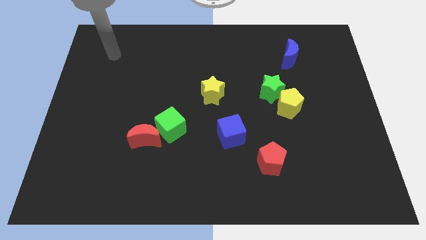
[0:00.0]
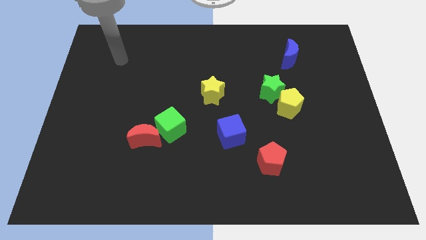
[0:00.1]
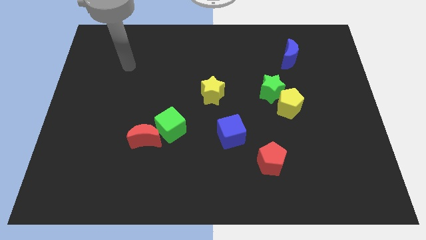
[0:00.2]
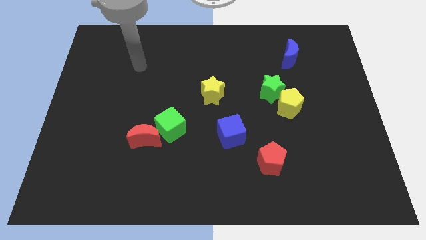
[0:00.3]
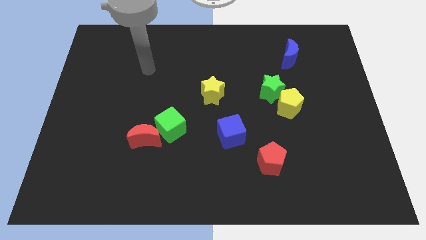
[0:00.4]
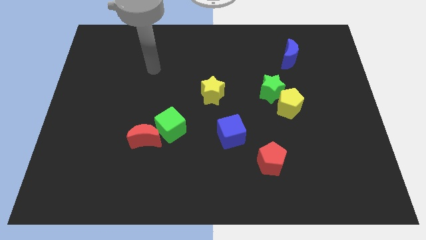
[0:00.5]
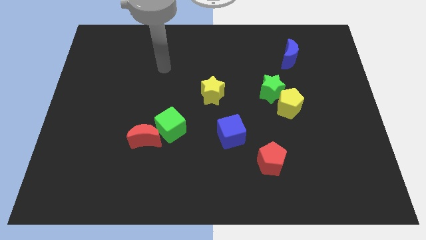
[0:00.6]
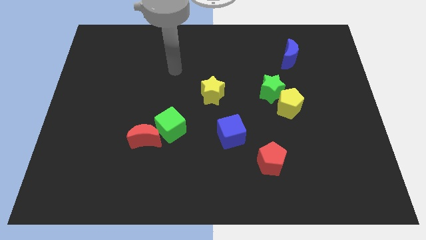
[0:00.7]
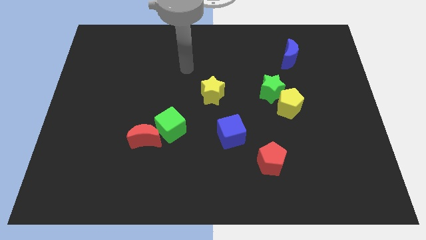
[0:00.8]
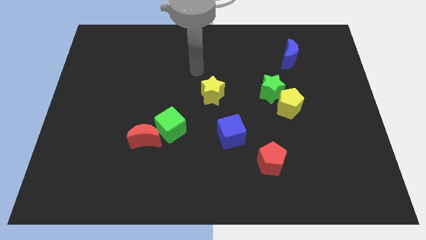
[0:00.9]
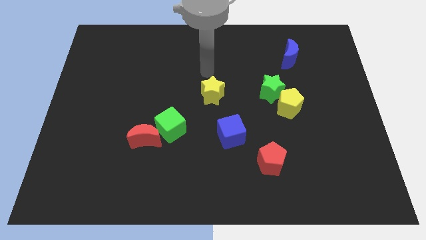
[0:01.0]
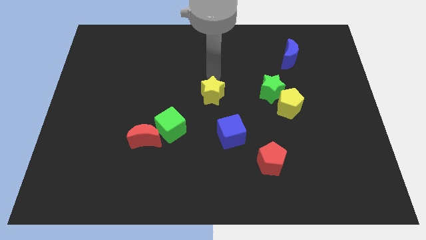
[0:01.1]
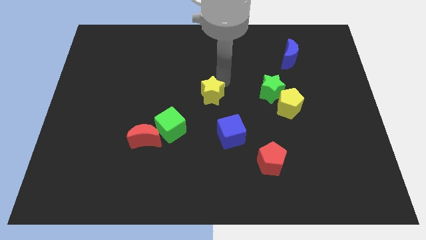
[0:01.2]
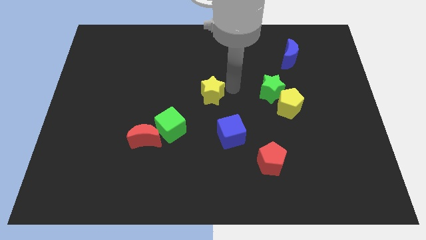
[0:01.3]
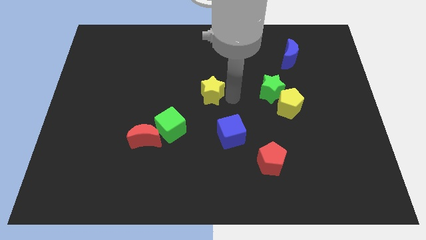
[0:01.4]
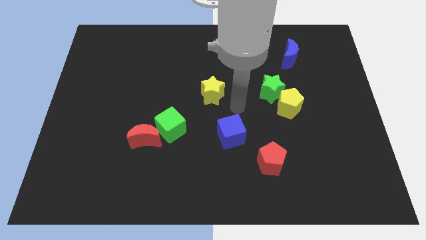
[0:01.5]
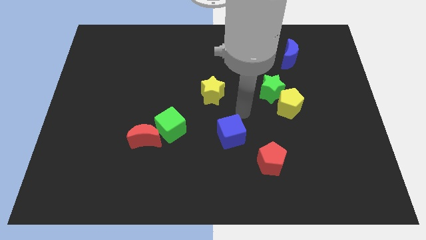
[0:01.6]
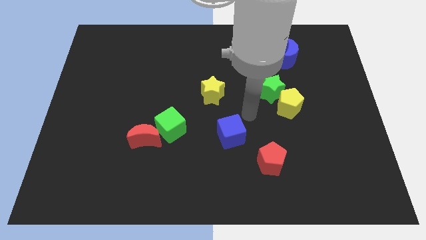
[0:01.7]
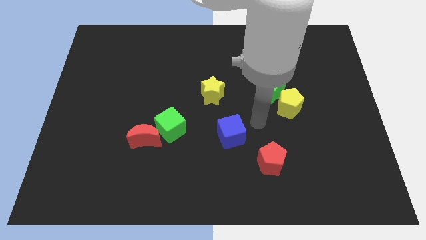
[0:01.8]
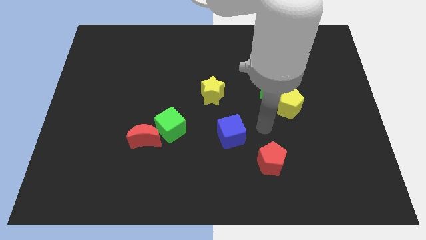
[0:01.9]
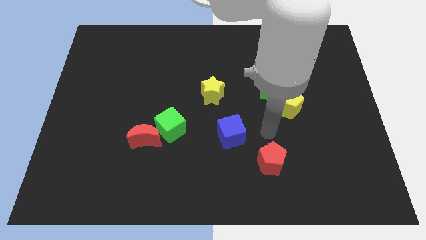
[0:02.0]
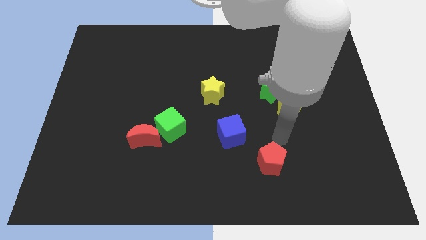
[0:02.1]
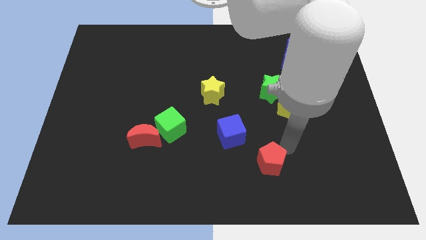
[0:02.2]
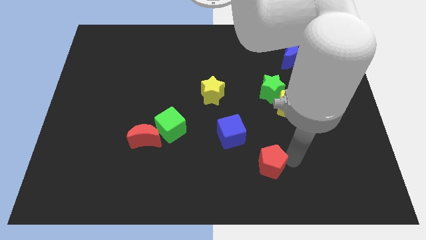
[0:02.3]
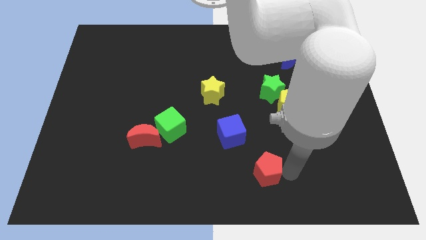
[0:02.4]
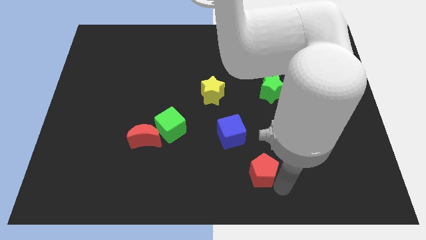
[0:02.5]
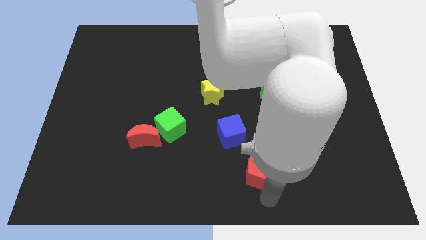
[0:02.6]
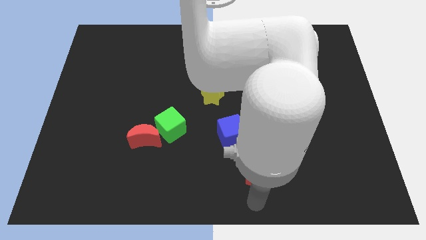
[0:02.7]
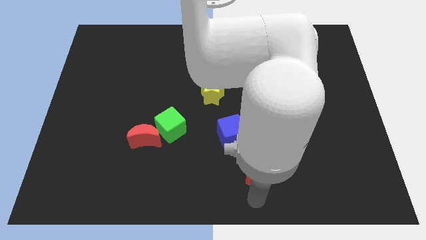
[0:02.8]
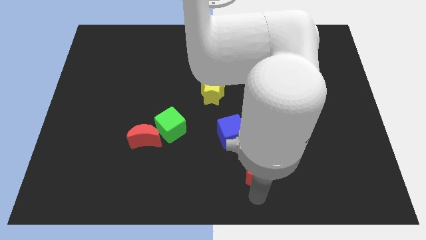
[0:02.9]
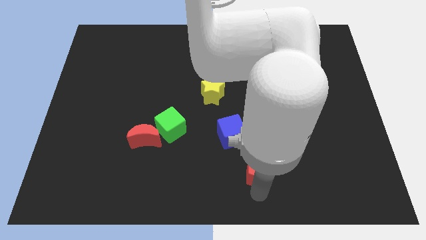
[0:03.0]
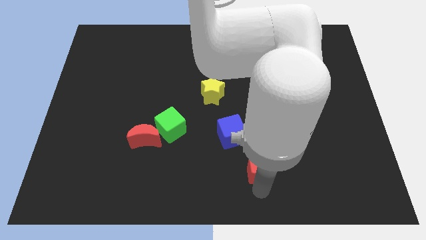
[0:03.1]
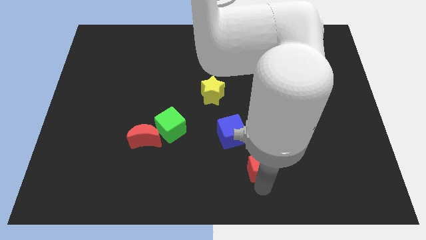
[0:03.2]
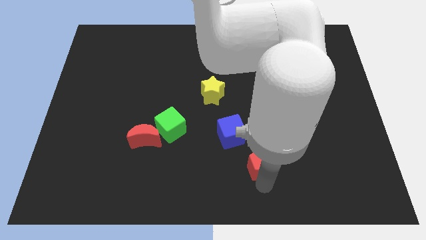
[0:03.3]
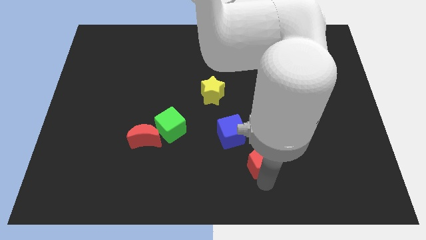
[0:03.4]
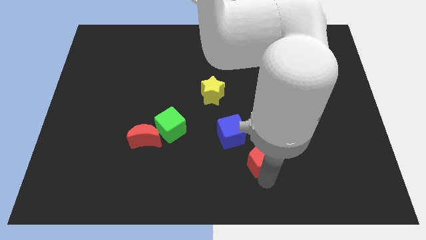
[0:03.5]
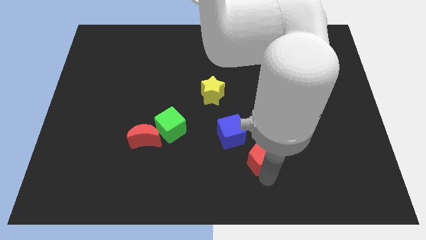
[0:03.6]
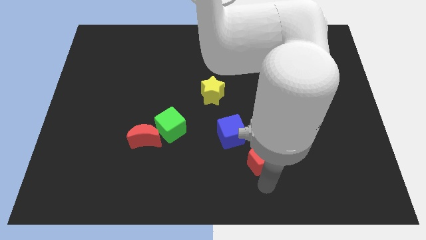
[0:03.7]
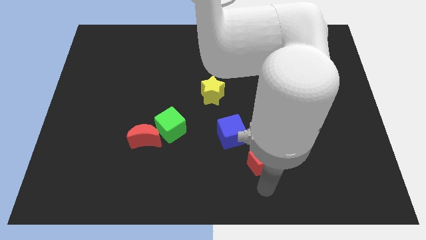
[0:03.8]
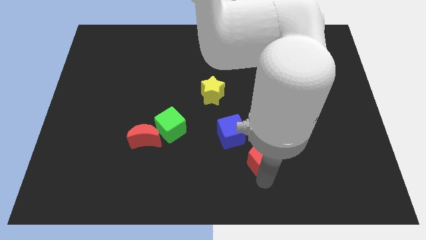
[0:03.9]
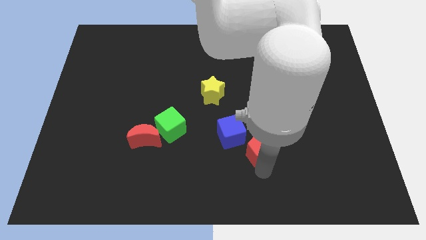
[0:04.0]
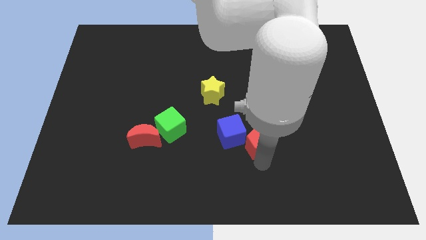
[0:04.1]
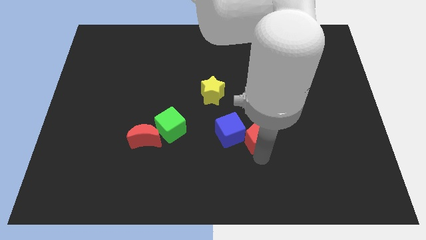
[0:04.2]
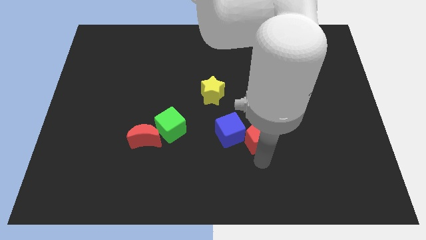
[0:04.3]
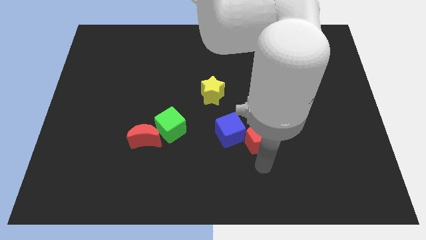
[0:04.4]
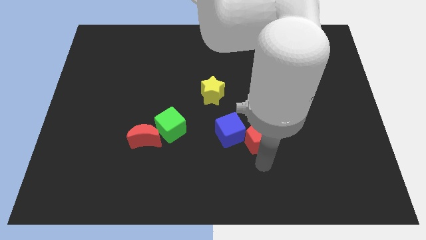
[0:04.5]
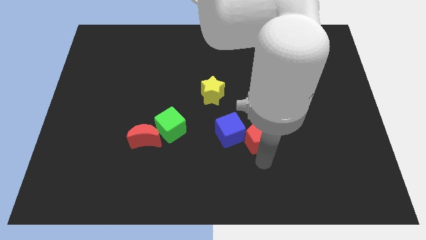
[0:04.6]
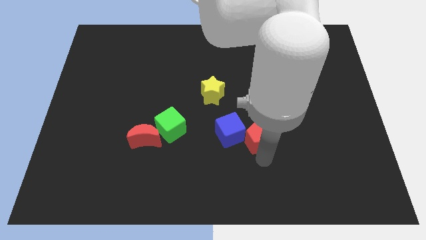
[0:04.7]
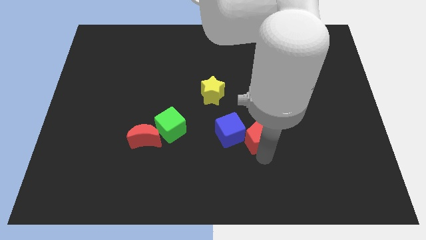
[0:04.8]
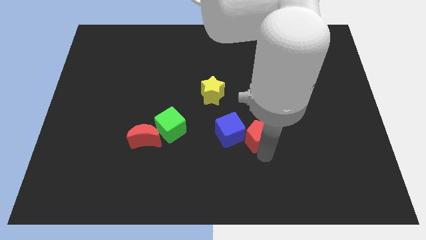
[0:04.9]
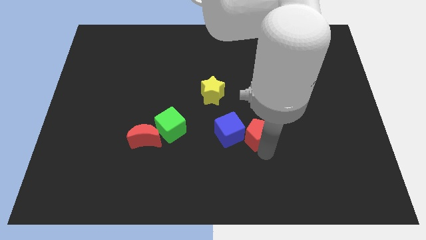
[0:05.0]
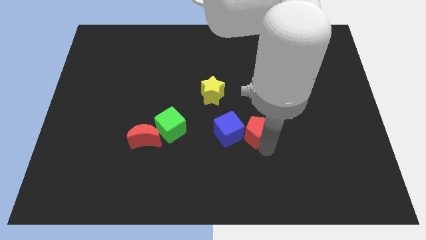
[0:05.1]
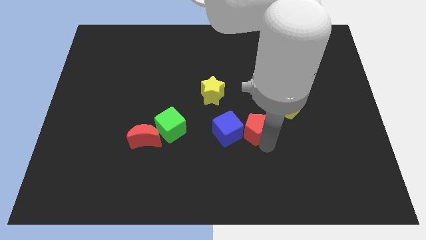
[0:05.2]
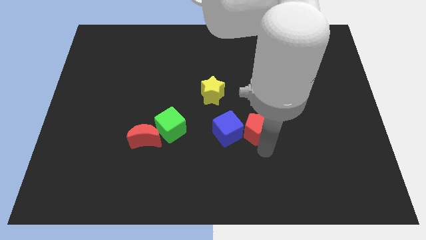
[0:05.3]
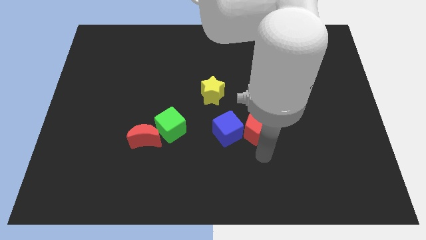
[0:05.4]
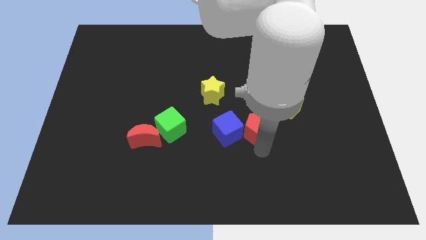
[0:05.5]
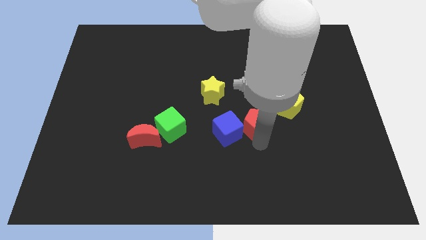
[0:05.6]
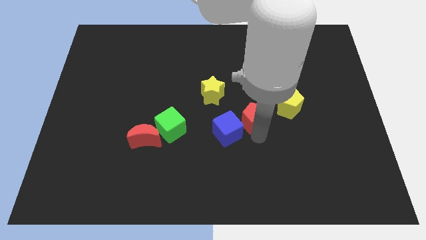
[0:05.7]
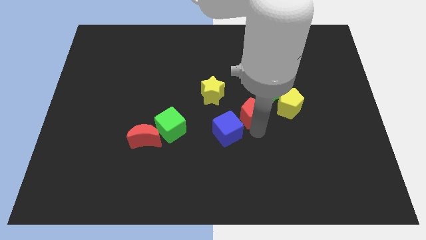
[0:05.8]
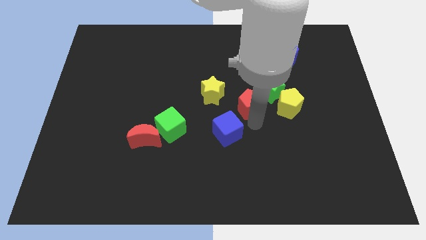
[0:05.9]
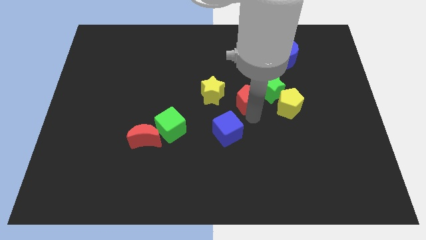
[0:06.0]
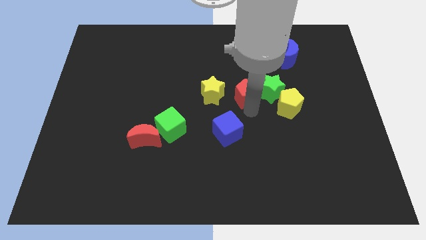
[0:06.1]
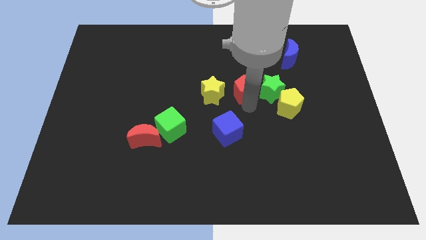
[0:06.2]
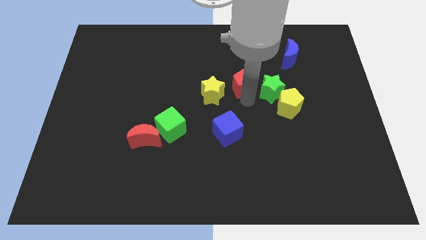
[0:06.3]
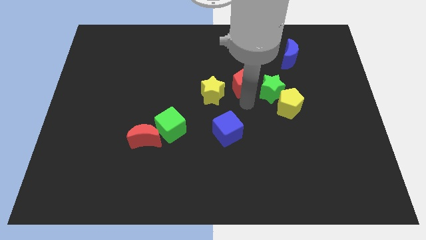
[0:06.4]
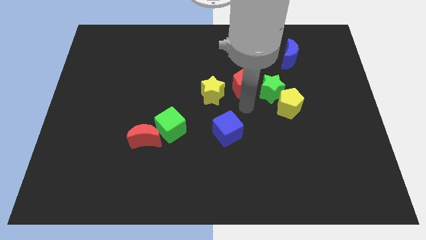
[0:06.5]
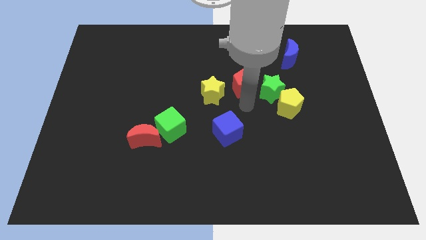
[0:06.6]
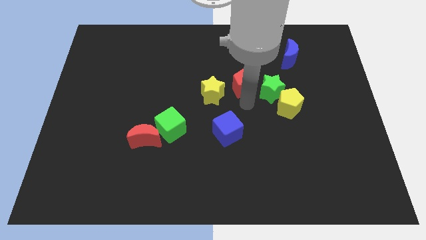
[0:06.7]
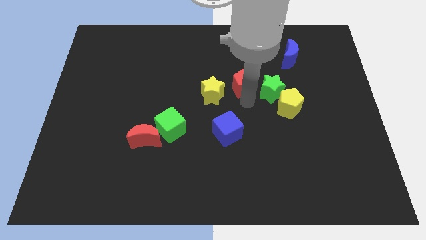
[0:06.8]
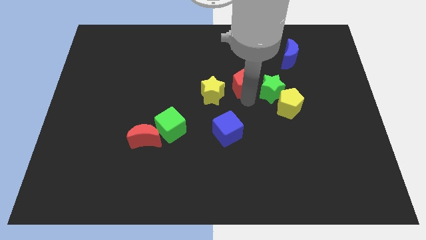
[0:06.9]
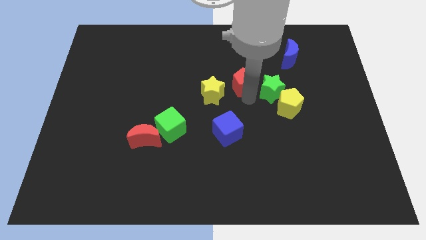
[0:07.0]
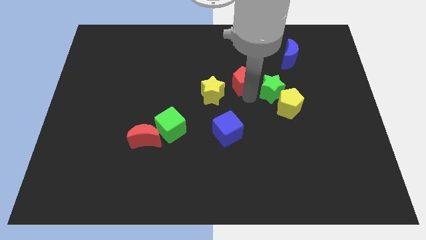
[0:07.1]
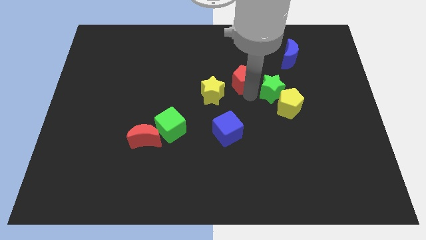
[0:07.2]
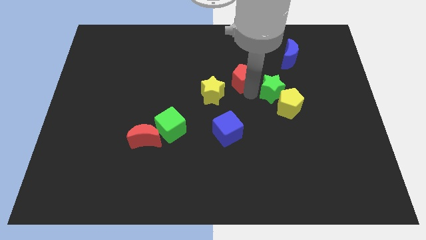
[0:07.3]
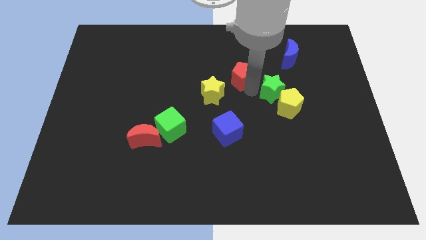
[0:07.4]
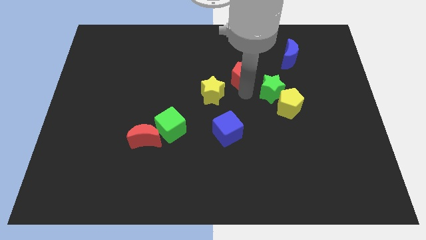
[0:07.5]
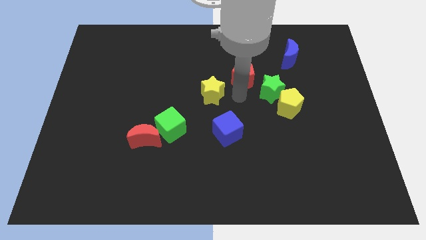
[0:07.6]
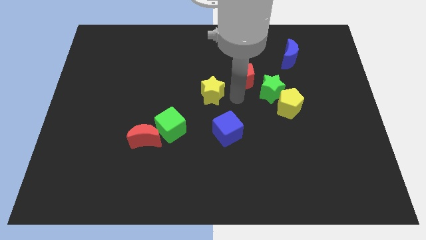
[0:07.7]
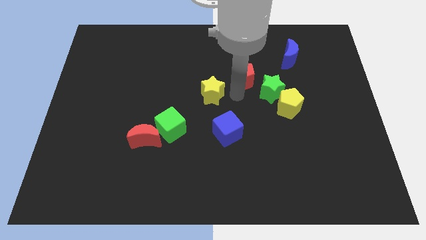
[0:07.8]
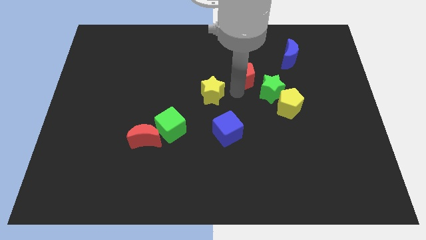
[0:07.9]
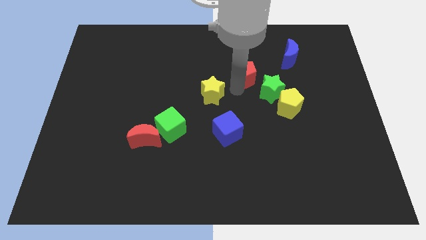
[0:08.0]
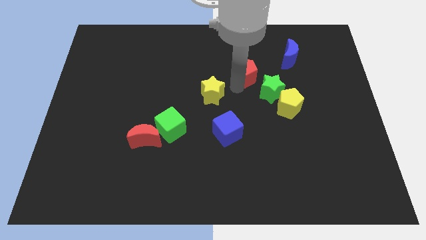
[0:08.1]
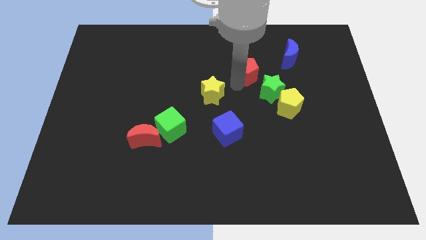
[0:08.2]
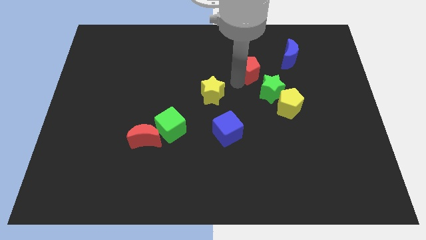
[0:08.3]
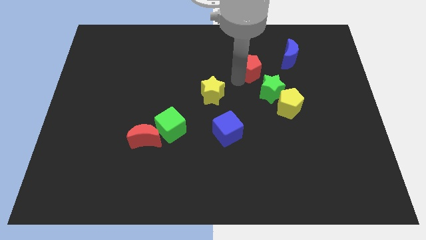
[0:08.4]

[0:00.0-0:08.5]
put the red pentagon to the left side of the blue moon
